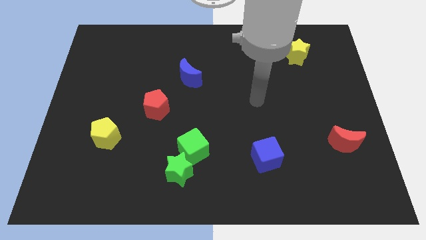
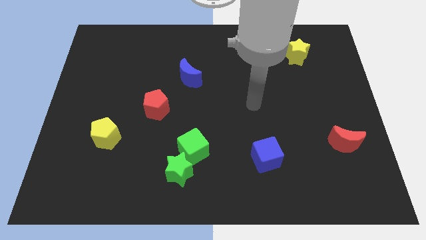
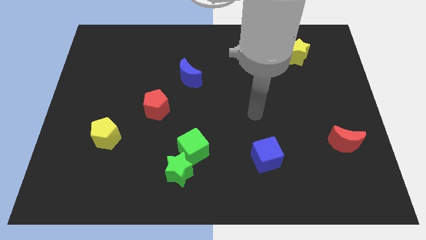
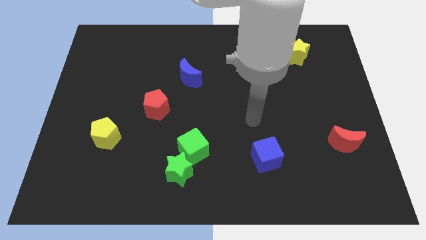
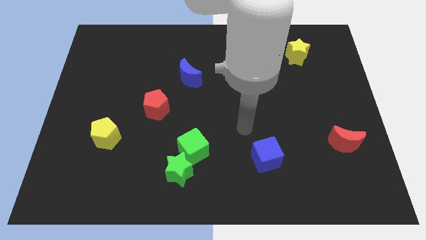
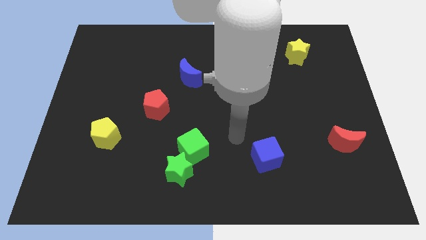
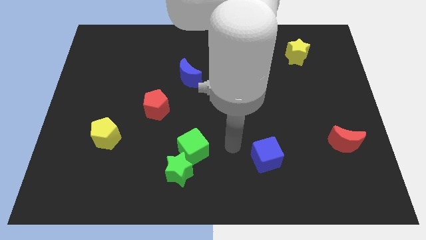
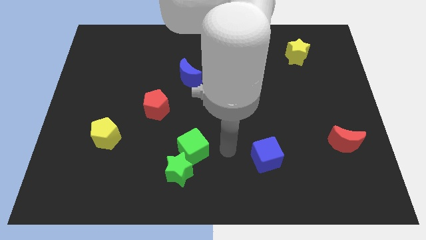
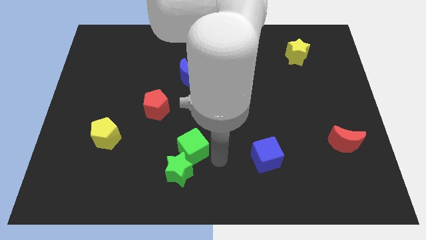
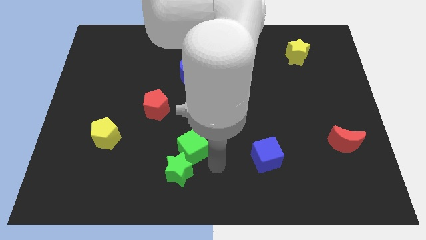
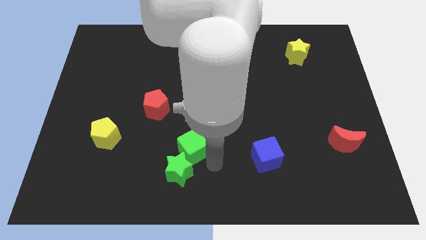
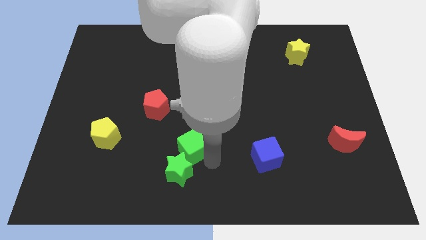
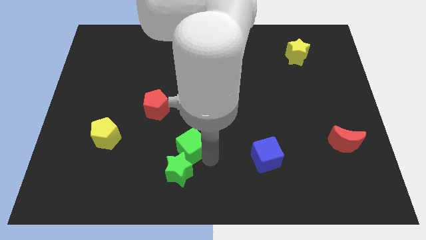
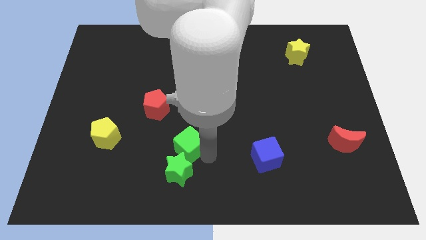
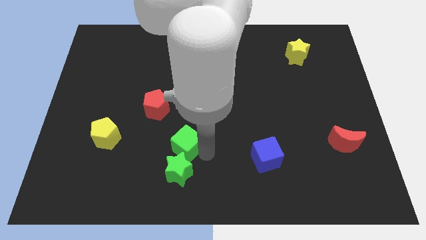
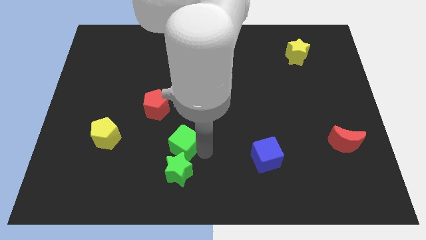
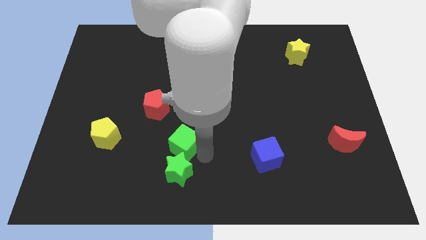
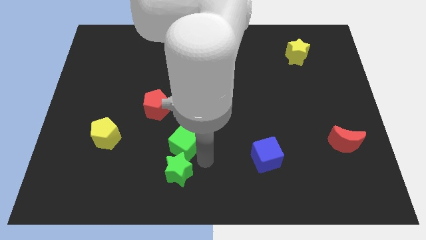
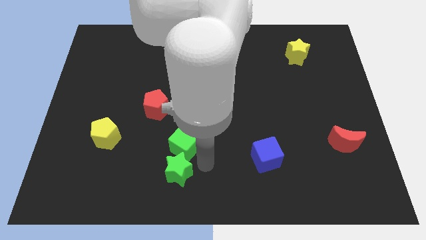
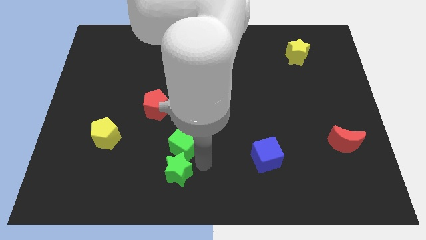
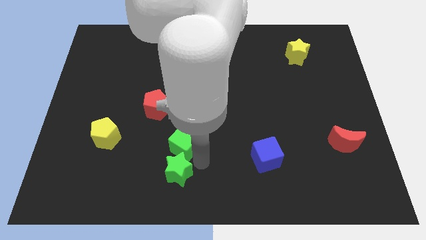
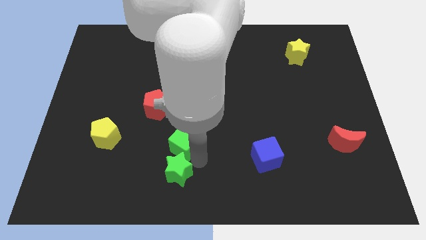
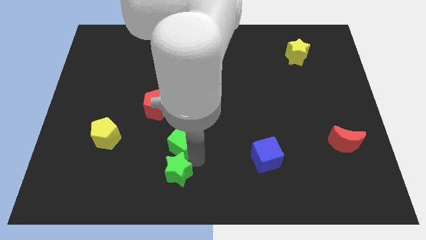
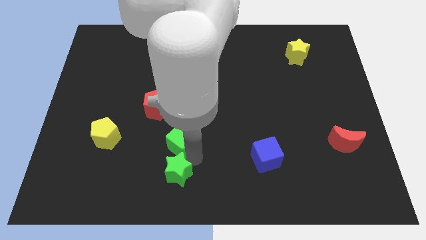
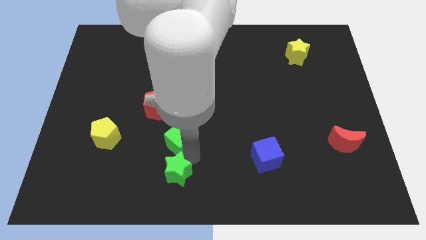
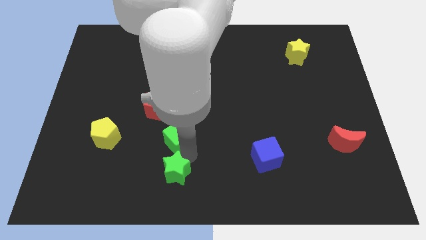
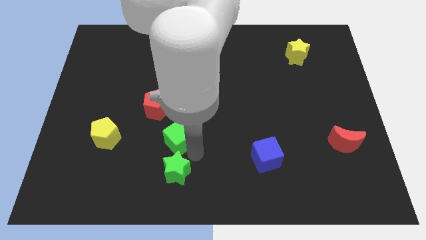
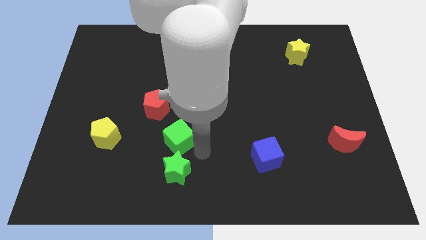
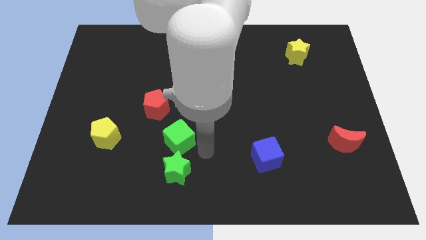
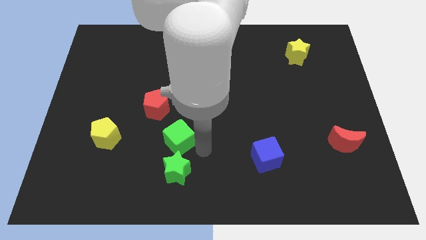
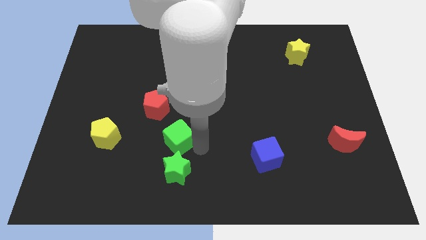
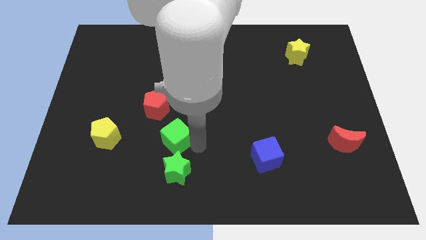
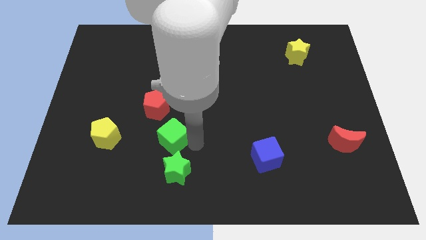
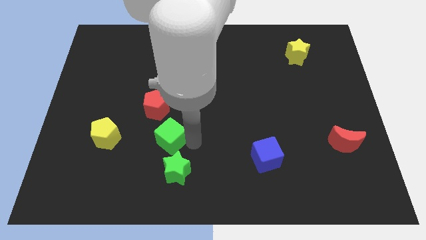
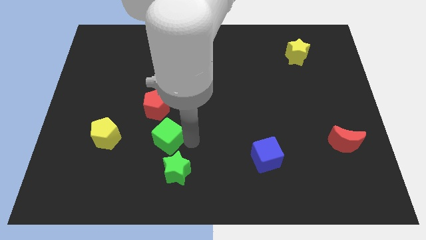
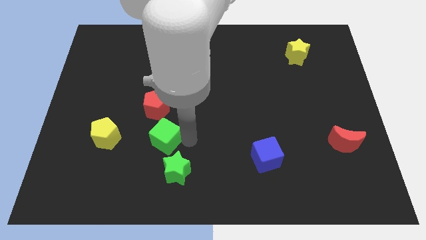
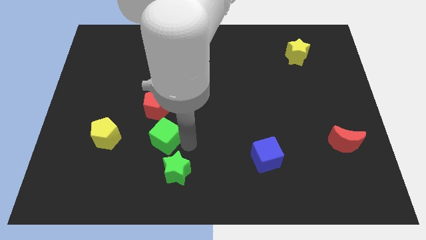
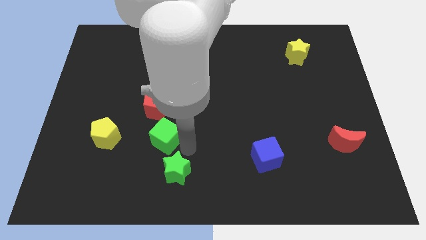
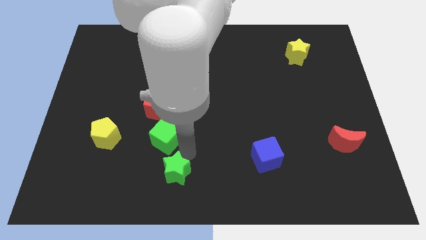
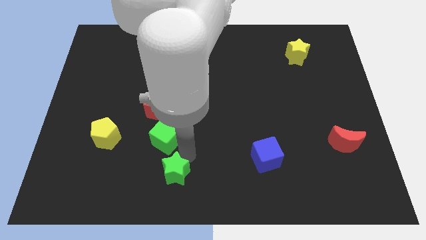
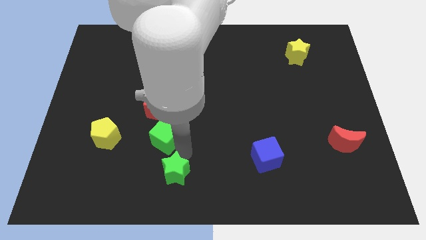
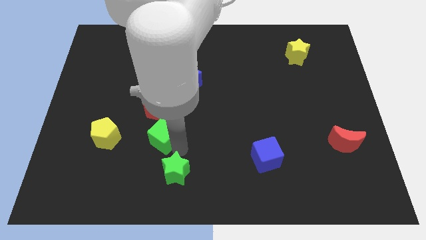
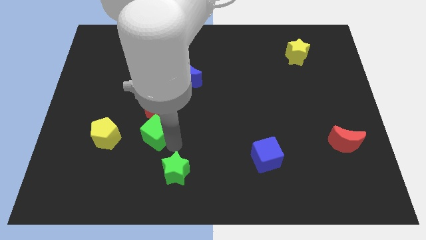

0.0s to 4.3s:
slightly move the green cube diagonally up and to the left

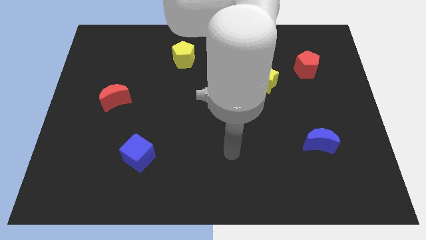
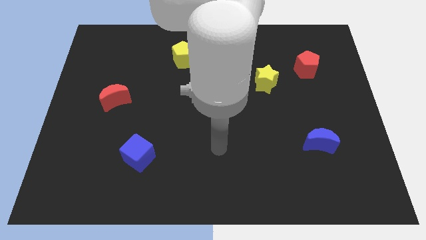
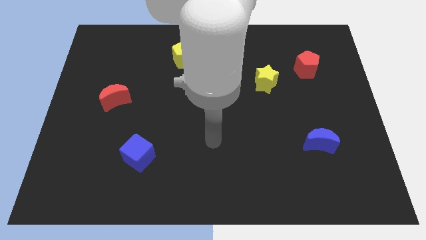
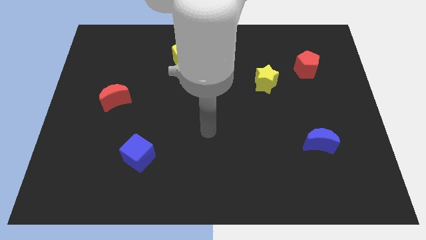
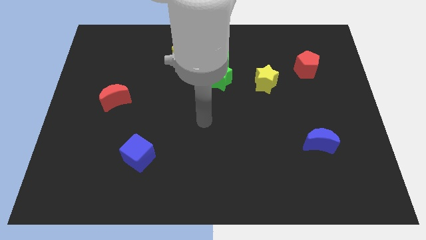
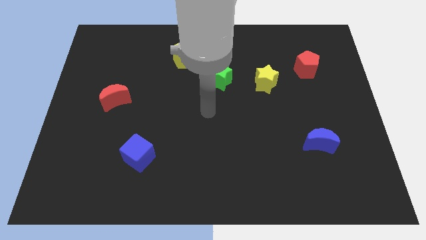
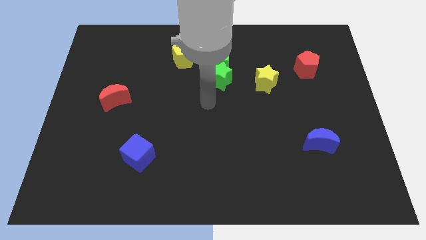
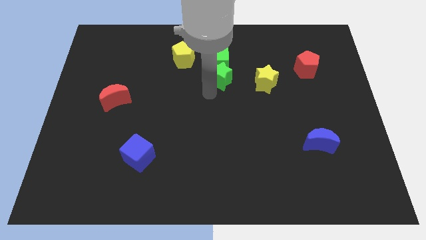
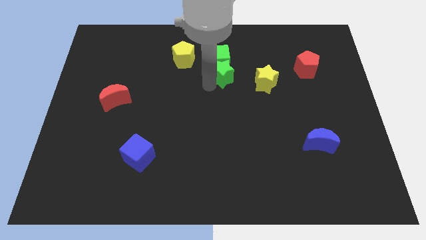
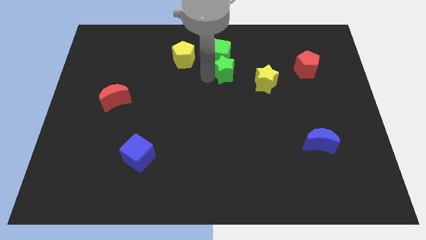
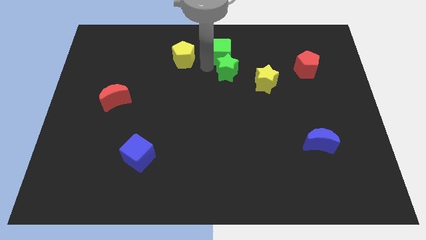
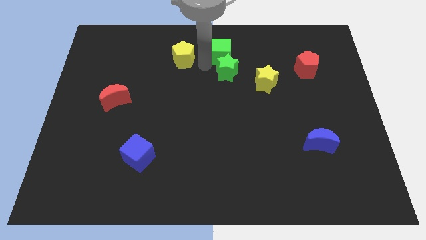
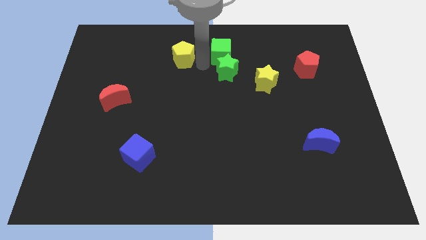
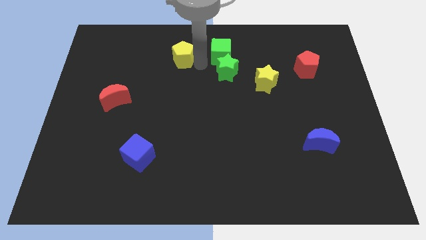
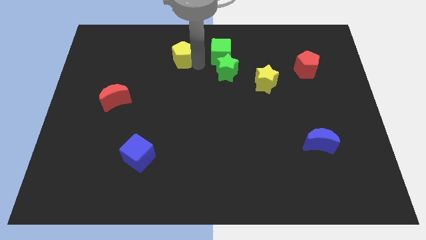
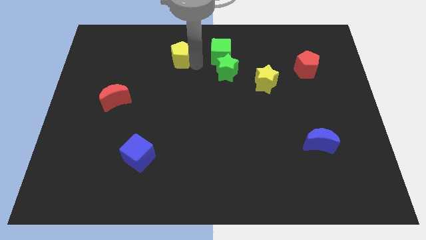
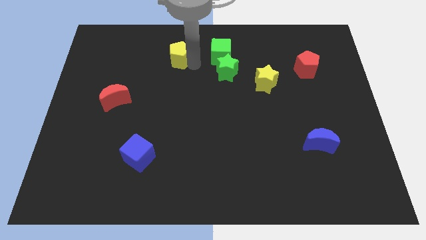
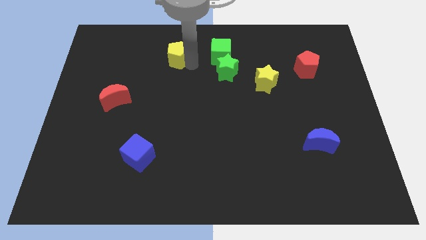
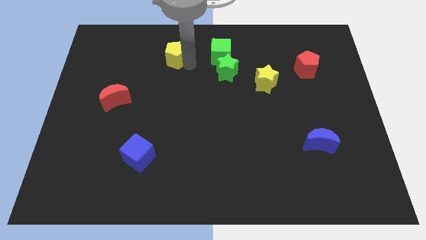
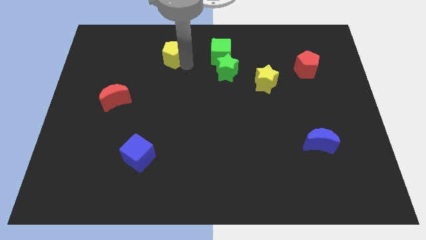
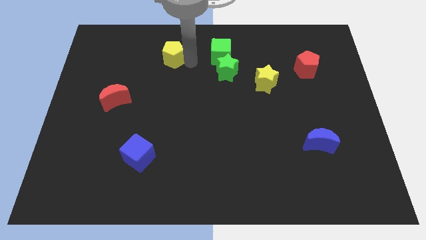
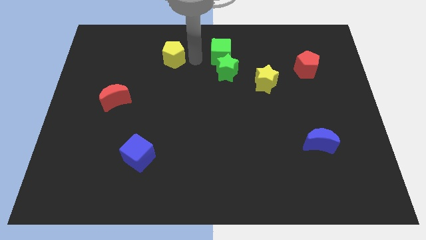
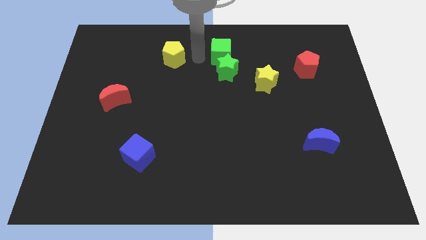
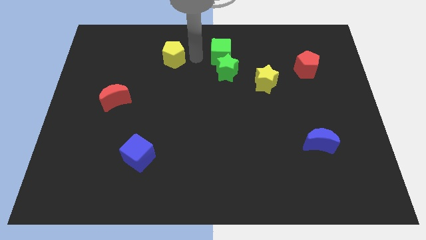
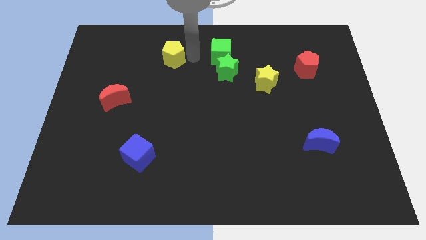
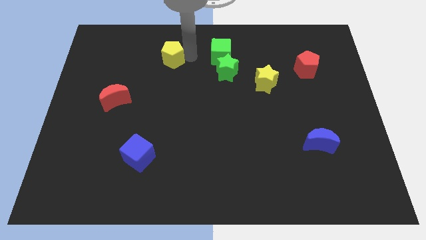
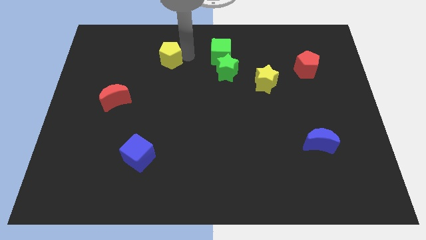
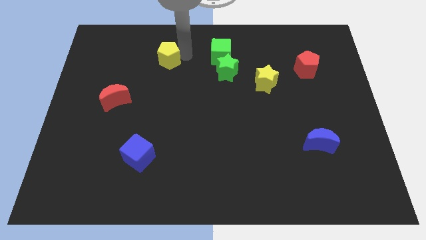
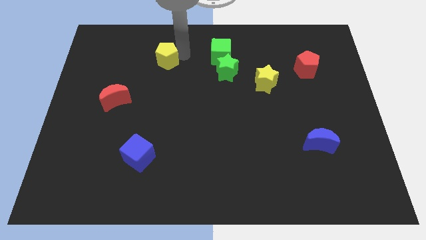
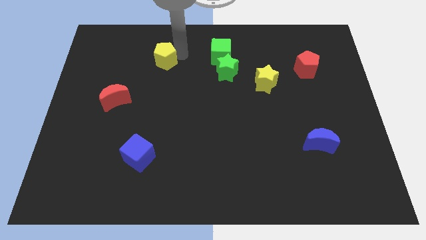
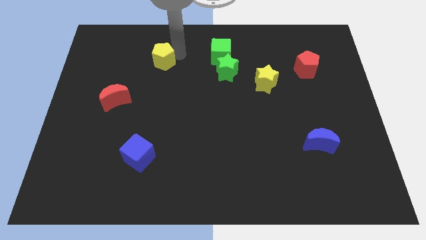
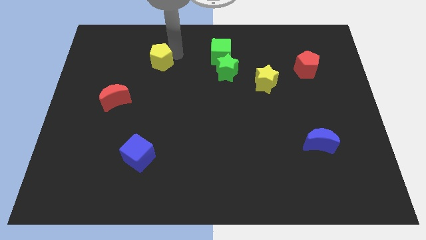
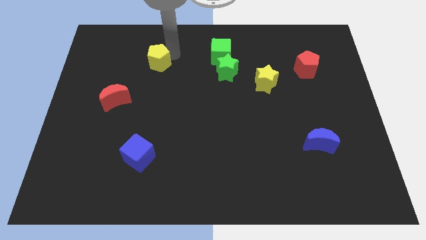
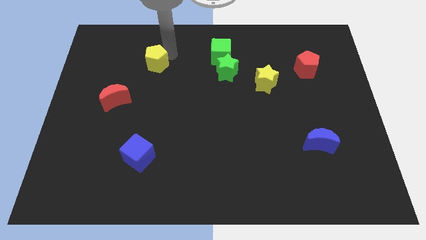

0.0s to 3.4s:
slightly slide the yellow pentagon left

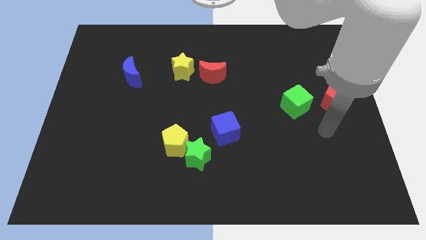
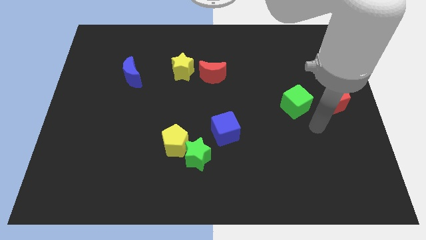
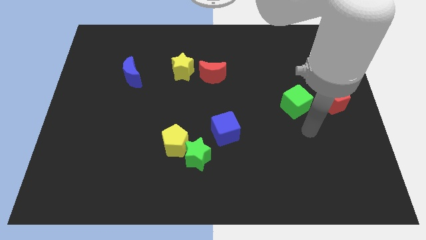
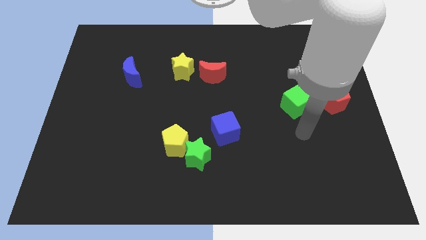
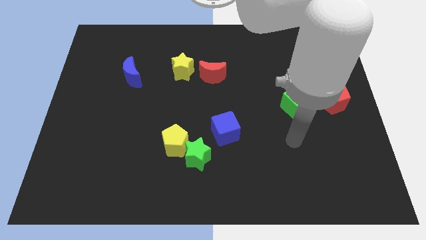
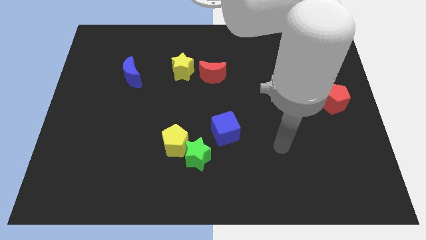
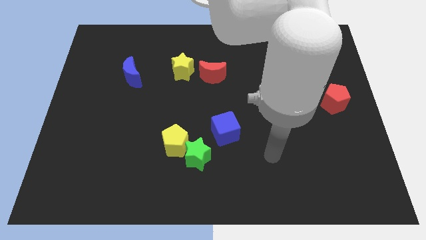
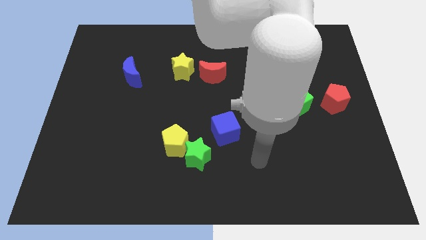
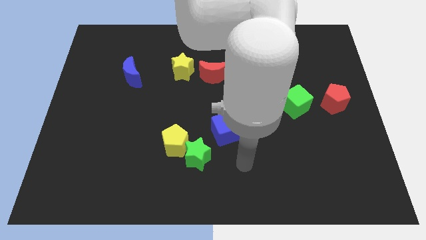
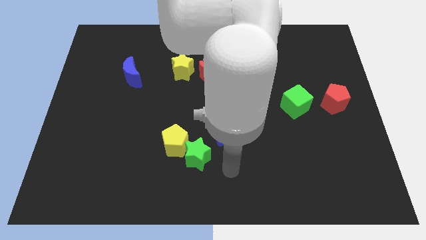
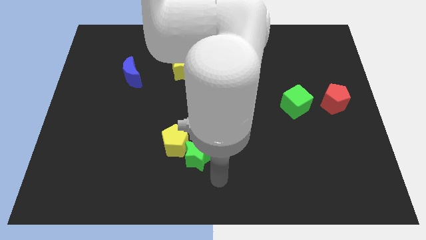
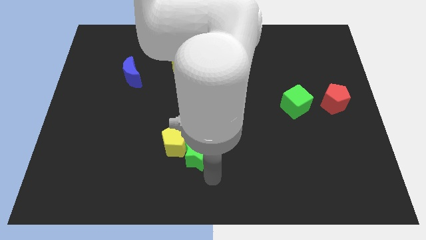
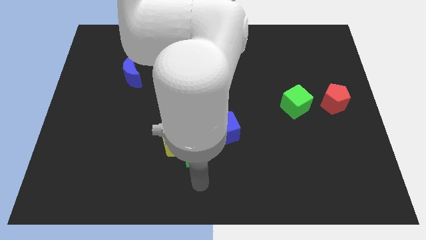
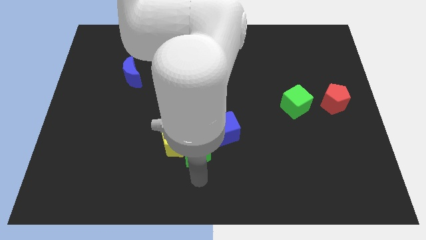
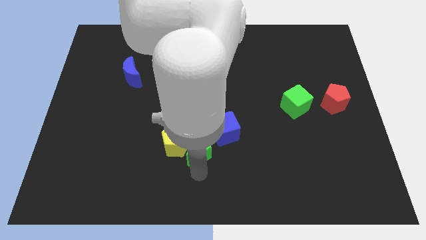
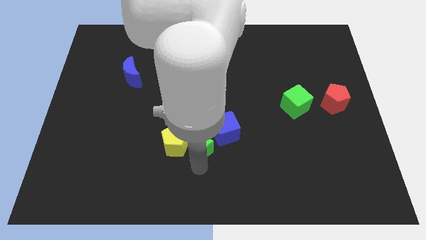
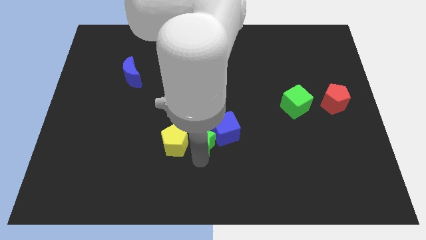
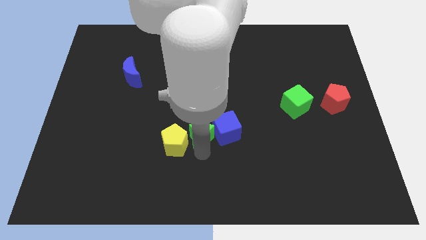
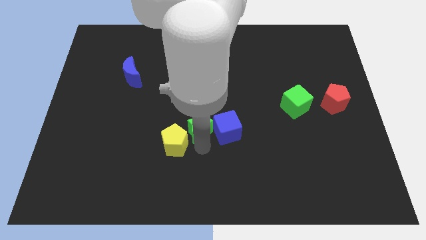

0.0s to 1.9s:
slide the green star slightly upwards
